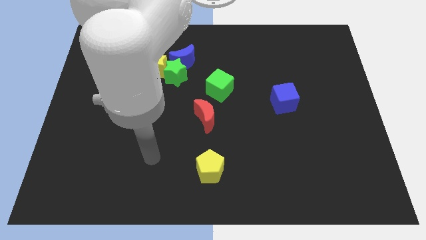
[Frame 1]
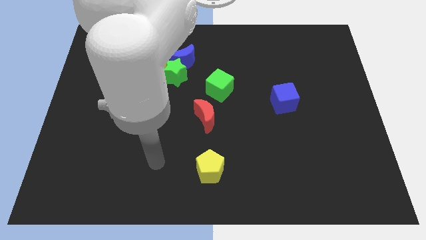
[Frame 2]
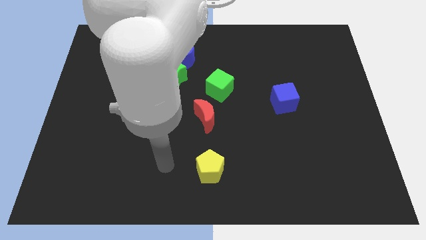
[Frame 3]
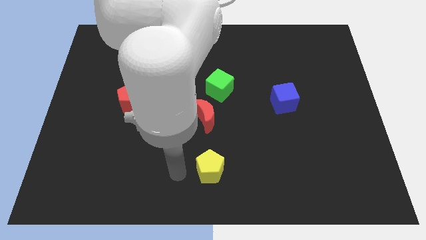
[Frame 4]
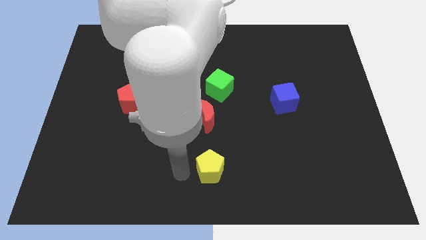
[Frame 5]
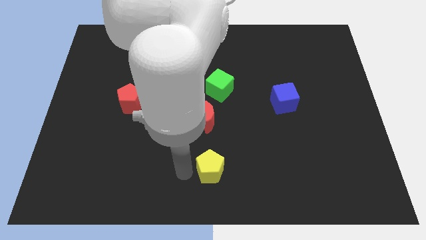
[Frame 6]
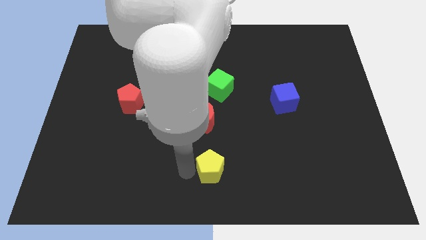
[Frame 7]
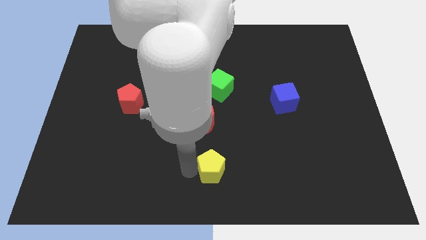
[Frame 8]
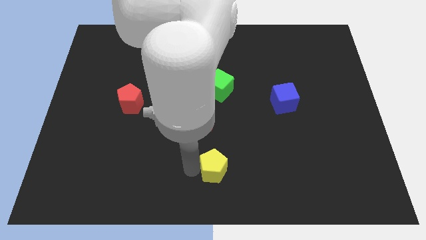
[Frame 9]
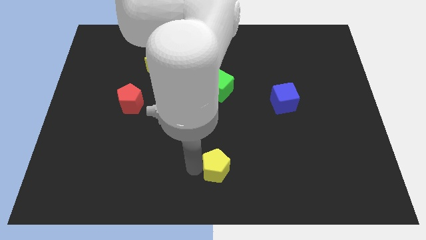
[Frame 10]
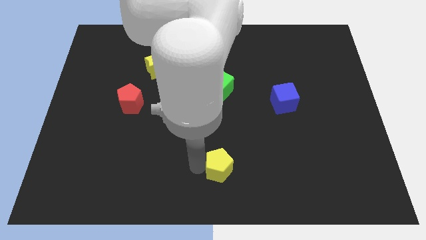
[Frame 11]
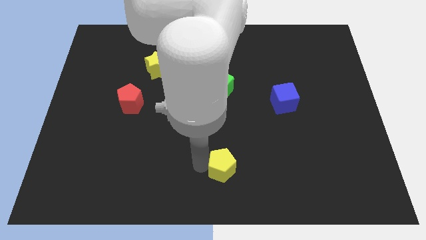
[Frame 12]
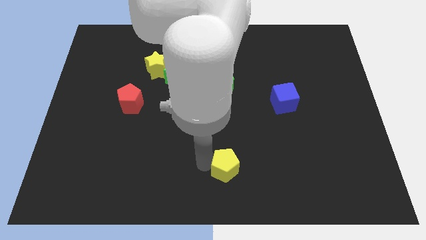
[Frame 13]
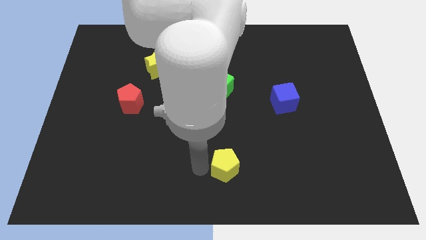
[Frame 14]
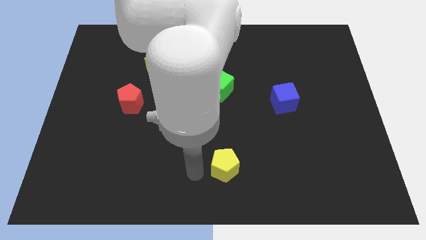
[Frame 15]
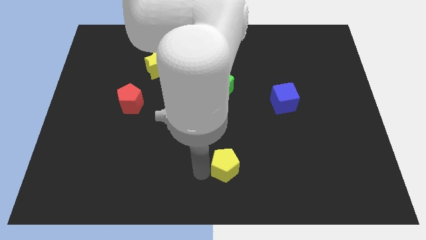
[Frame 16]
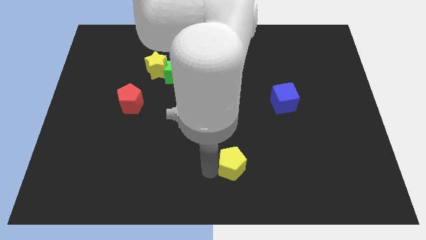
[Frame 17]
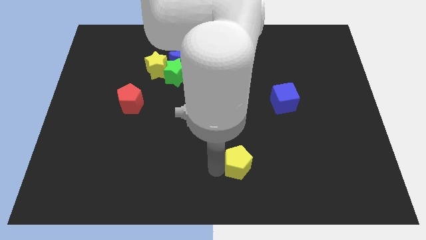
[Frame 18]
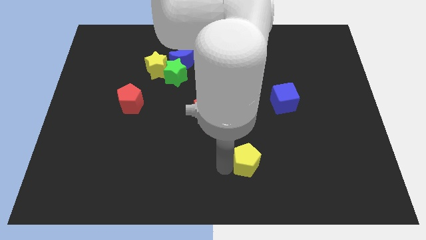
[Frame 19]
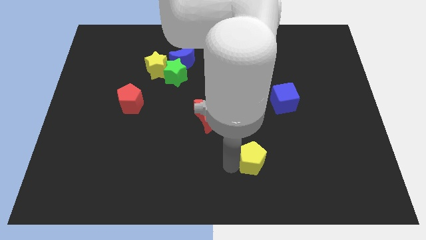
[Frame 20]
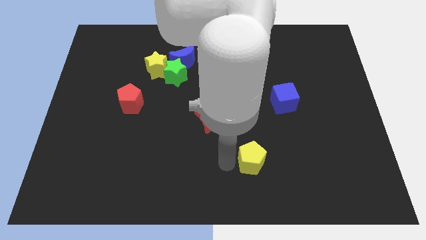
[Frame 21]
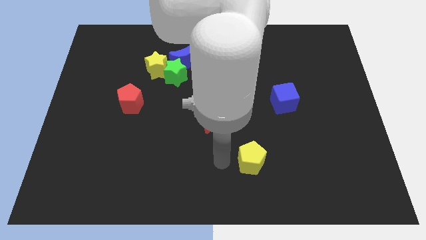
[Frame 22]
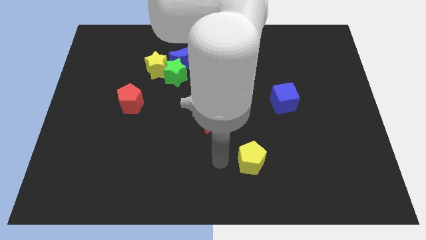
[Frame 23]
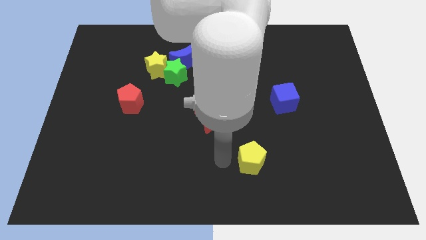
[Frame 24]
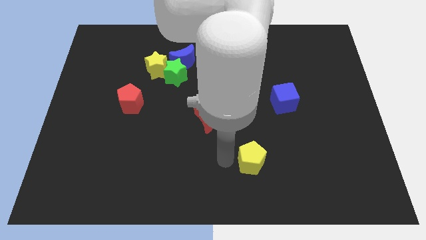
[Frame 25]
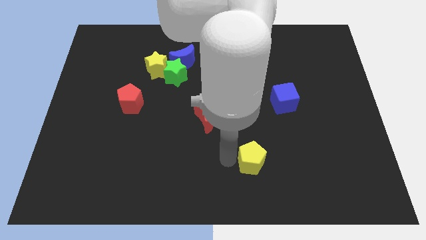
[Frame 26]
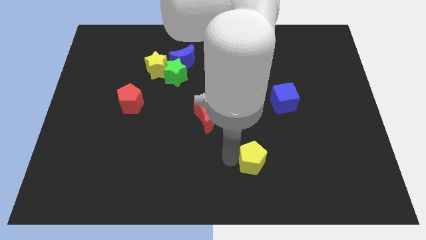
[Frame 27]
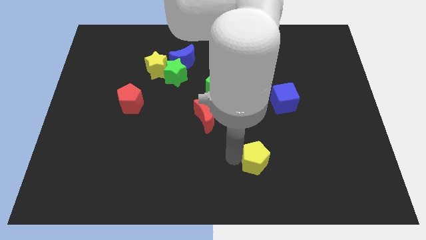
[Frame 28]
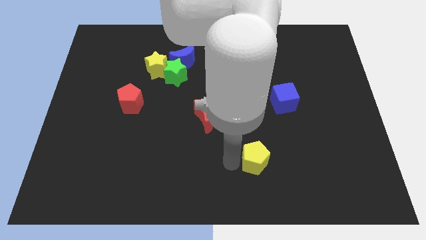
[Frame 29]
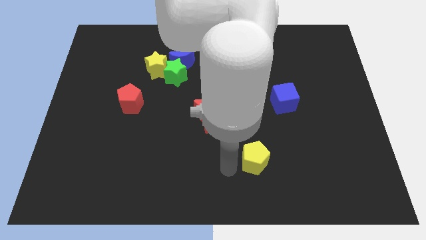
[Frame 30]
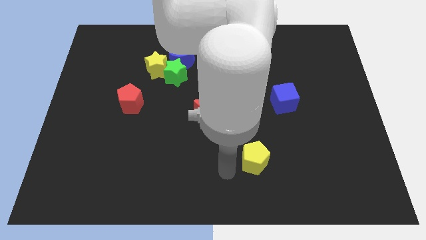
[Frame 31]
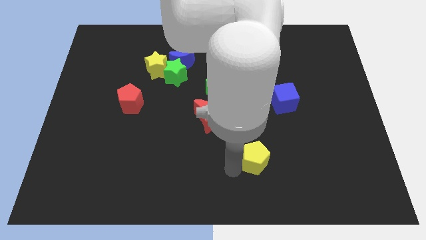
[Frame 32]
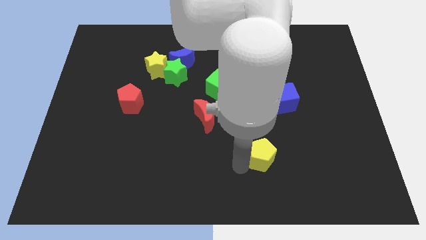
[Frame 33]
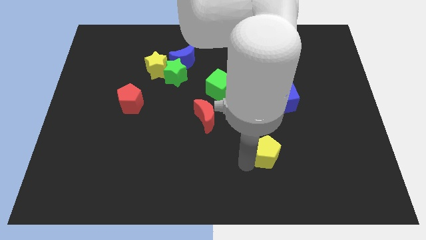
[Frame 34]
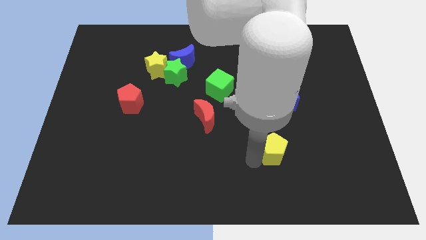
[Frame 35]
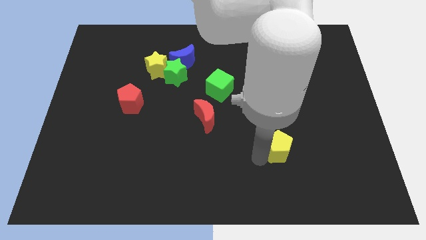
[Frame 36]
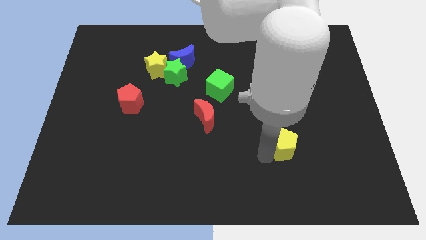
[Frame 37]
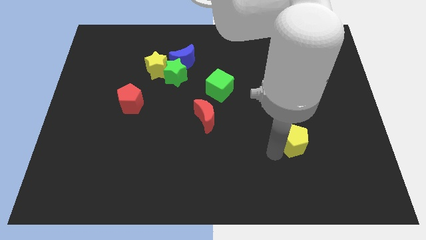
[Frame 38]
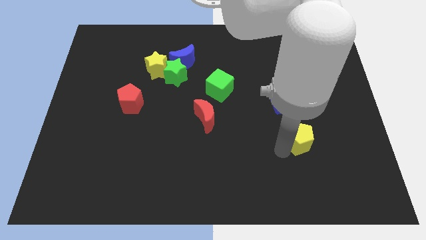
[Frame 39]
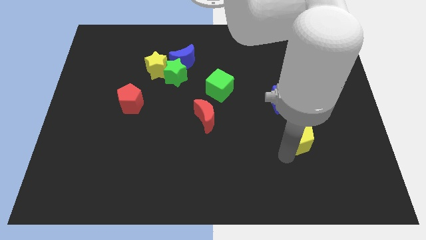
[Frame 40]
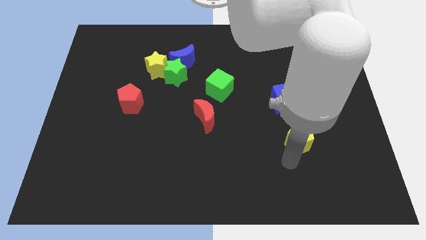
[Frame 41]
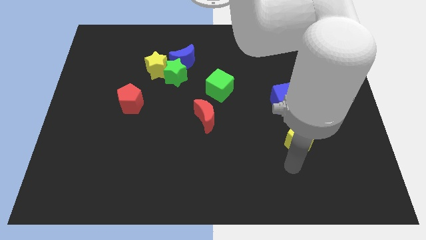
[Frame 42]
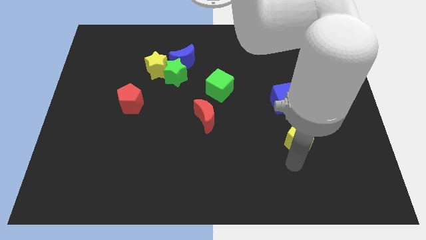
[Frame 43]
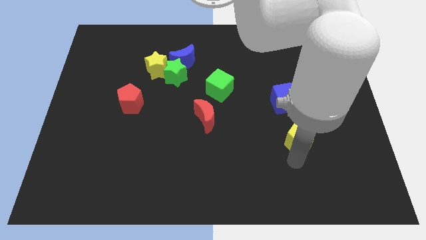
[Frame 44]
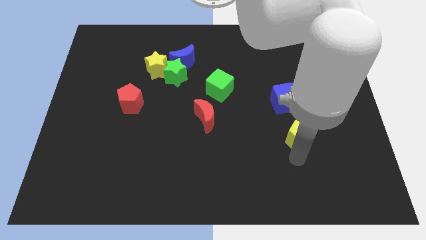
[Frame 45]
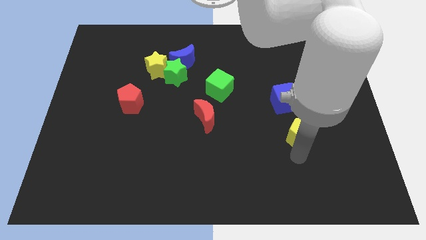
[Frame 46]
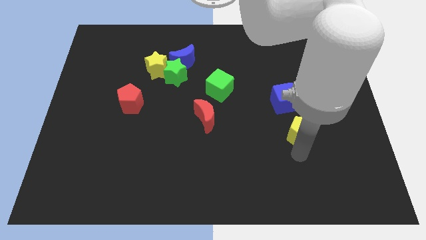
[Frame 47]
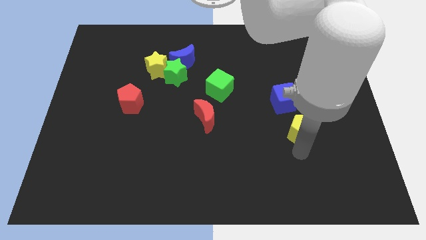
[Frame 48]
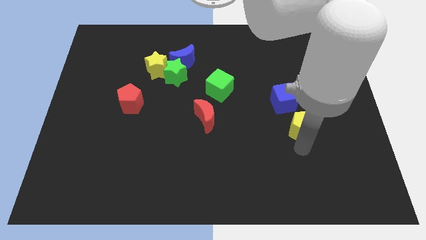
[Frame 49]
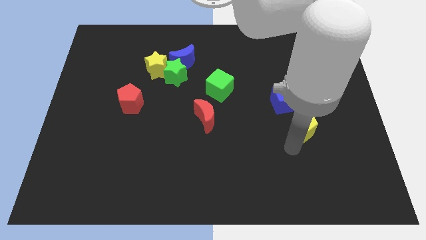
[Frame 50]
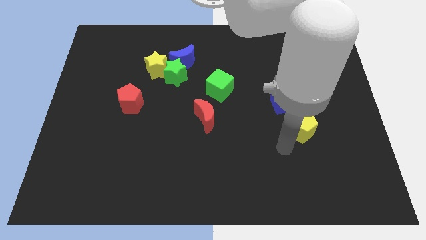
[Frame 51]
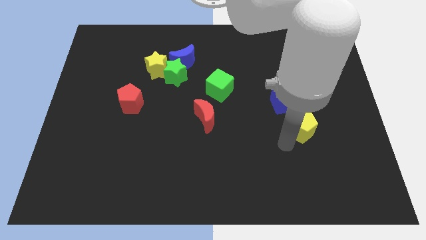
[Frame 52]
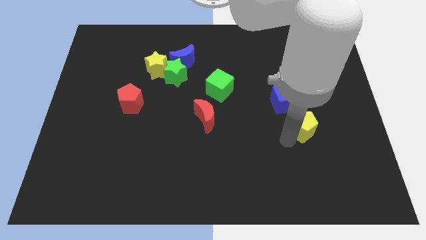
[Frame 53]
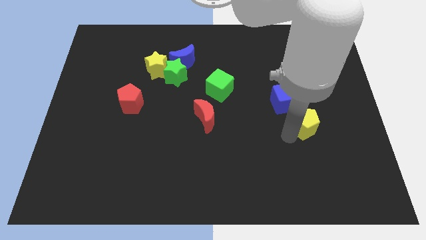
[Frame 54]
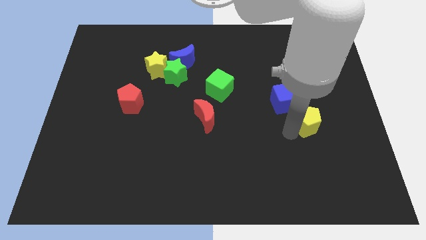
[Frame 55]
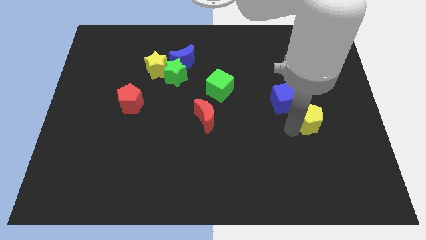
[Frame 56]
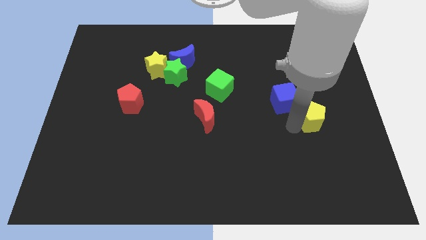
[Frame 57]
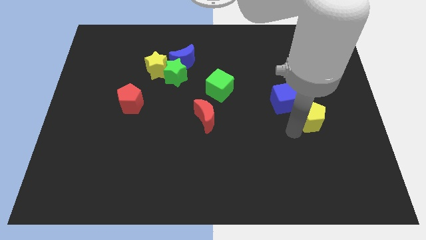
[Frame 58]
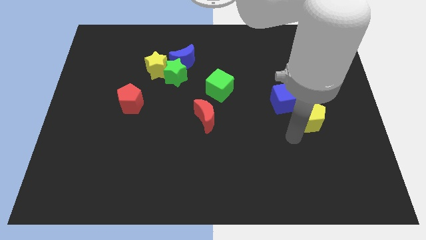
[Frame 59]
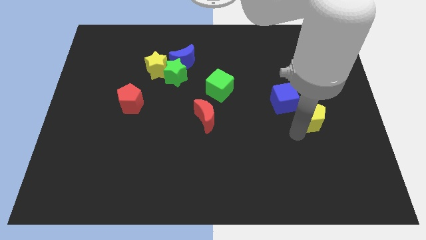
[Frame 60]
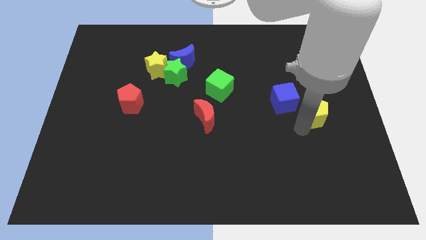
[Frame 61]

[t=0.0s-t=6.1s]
move the yellow pentagon to the right side of the blue cube
